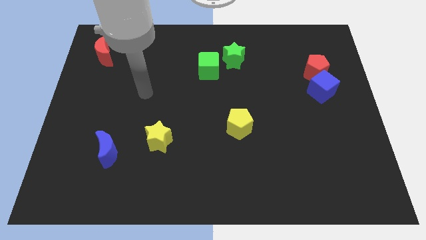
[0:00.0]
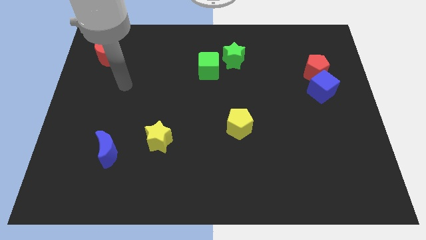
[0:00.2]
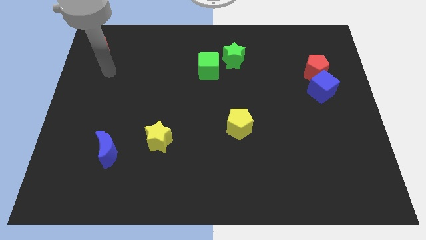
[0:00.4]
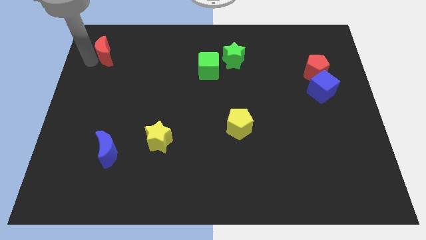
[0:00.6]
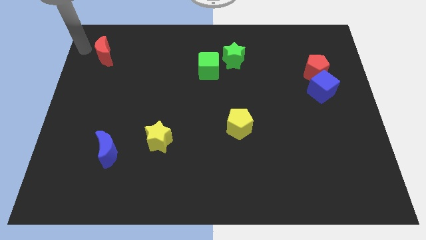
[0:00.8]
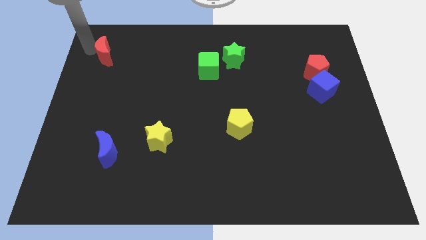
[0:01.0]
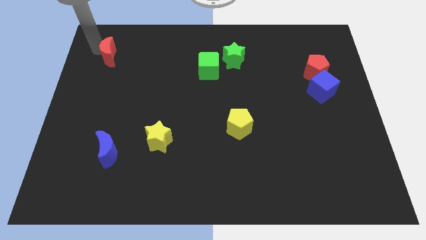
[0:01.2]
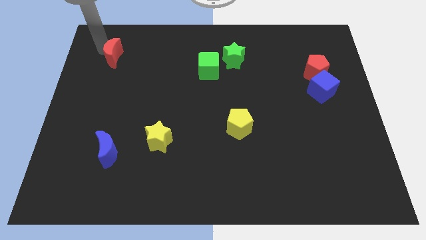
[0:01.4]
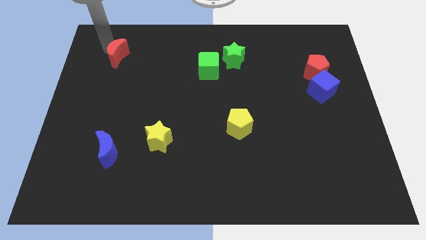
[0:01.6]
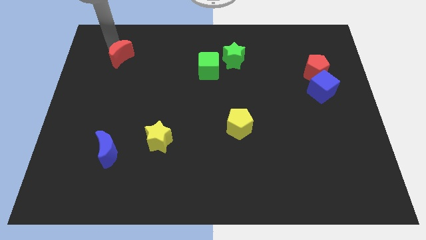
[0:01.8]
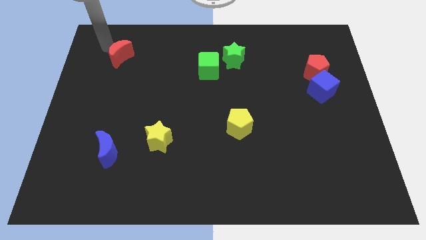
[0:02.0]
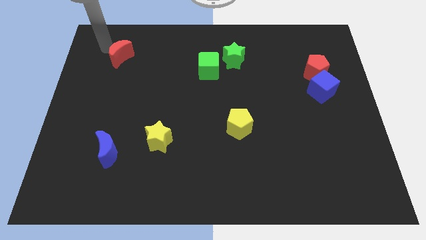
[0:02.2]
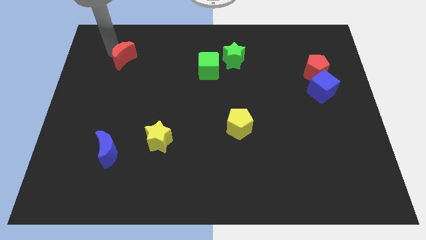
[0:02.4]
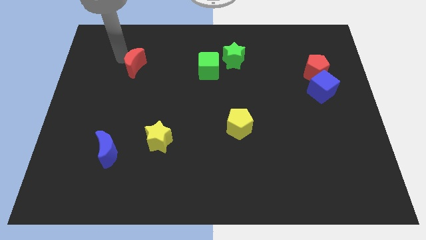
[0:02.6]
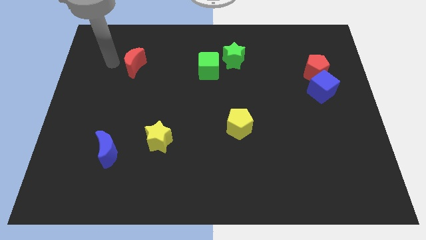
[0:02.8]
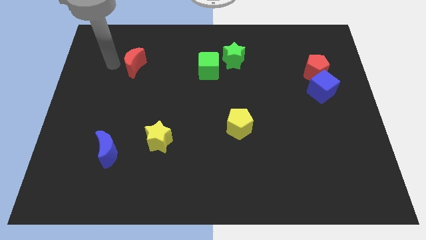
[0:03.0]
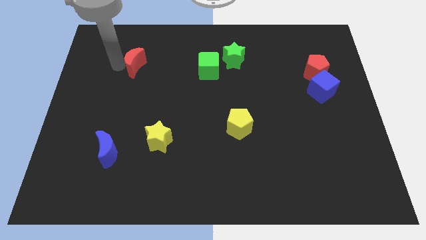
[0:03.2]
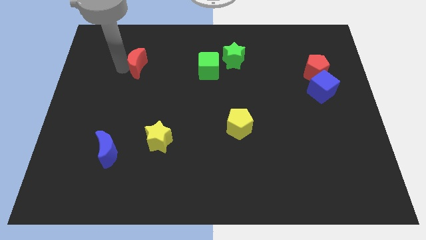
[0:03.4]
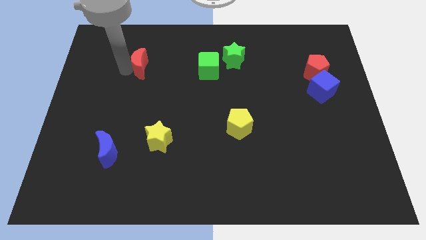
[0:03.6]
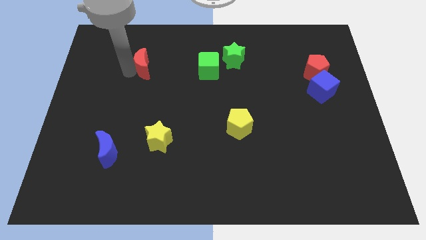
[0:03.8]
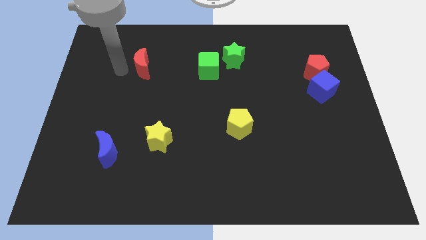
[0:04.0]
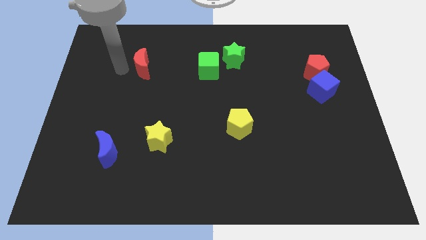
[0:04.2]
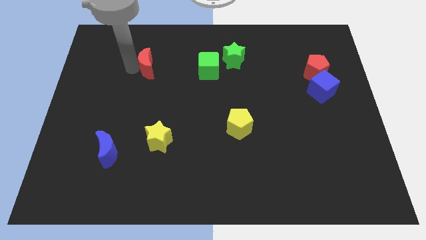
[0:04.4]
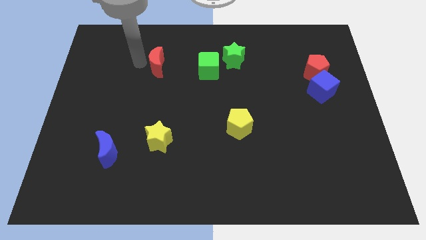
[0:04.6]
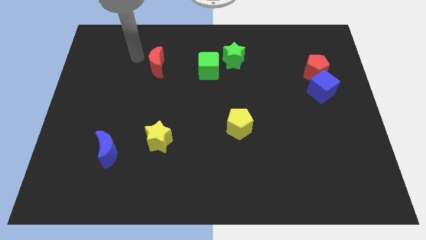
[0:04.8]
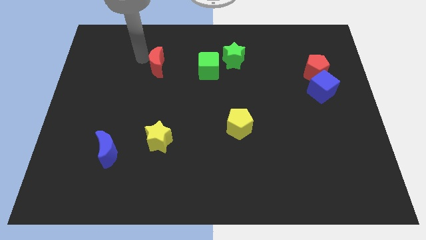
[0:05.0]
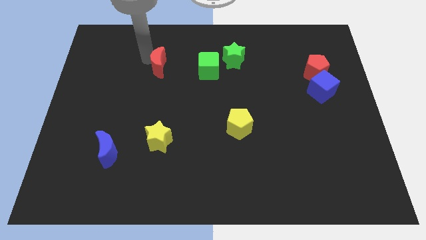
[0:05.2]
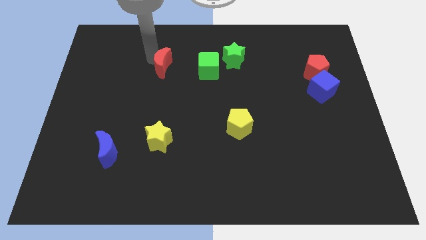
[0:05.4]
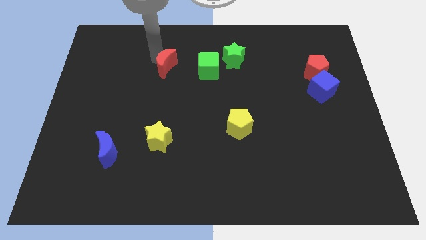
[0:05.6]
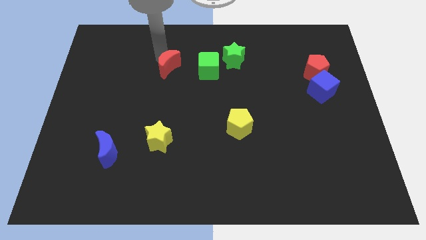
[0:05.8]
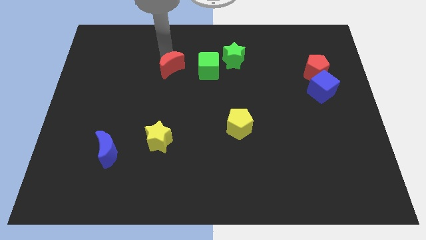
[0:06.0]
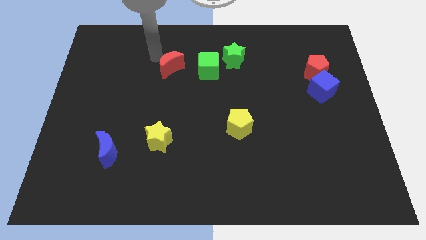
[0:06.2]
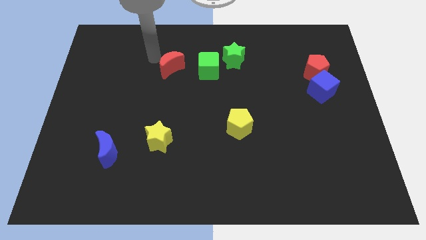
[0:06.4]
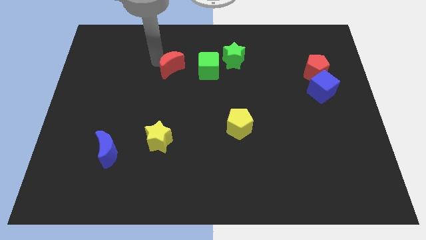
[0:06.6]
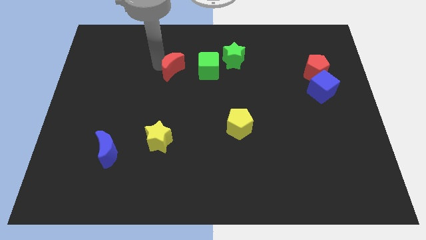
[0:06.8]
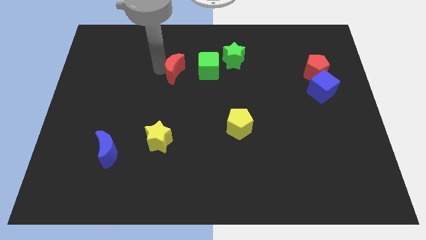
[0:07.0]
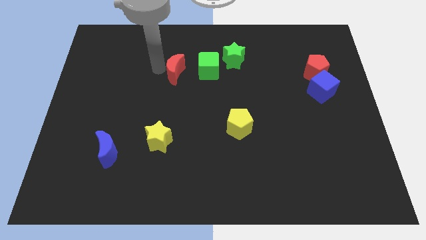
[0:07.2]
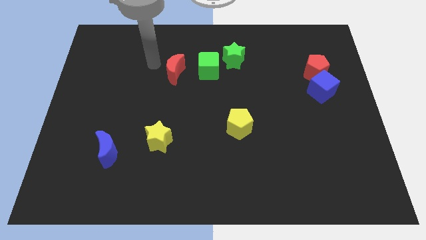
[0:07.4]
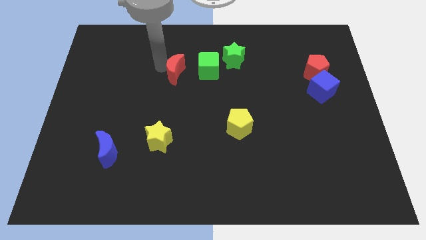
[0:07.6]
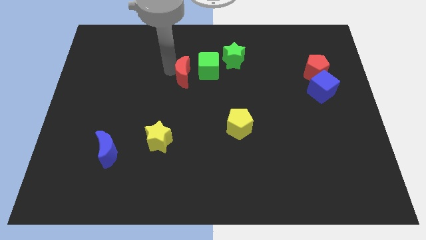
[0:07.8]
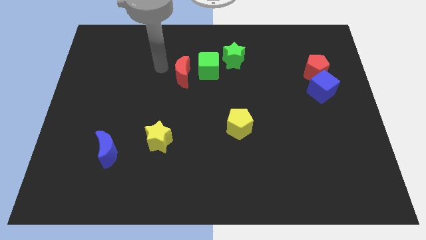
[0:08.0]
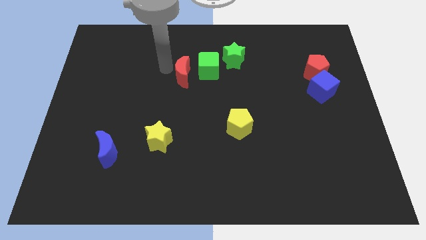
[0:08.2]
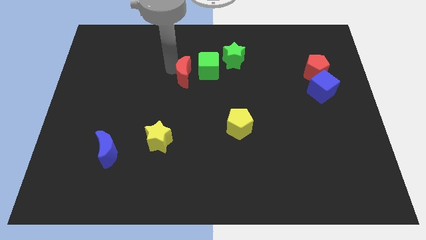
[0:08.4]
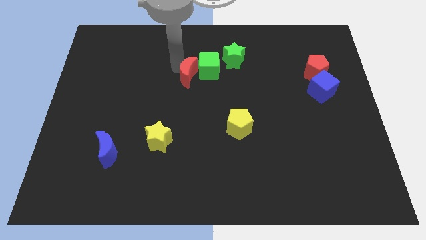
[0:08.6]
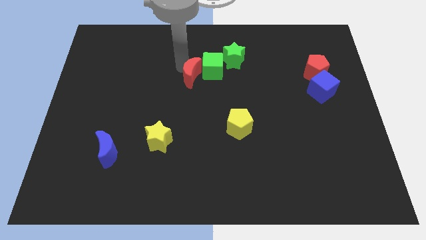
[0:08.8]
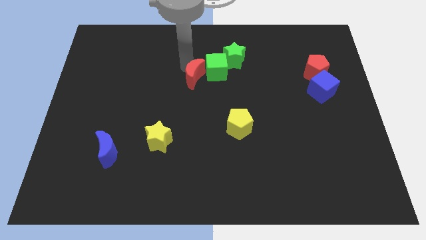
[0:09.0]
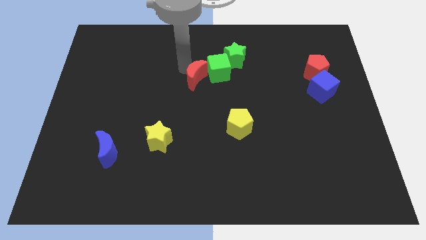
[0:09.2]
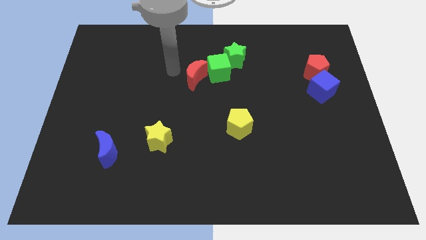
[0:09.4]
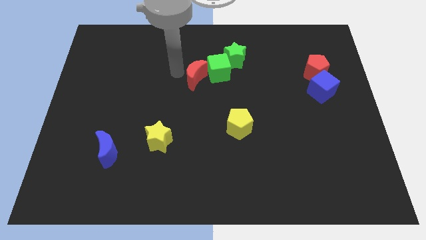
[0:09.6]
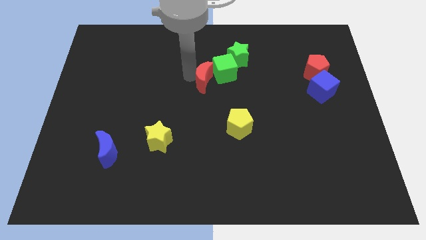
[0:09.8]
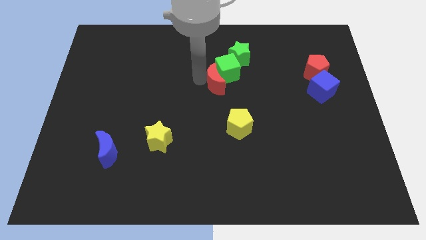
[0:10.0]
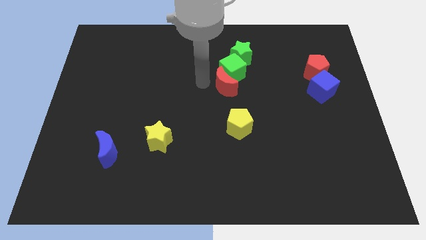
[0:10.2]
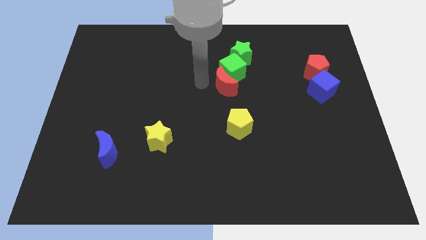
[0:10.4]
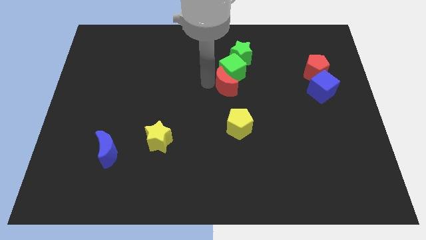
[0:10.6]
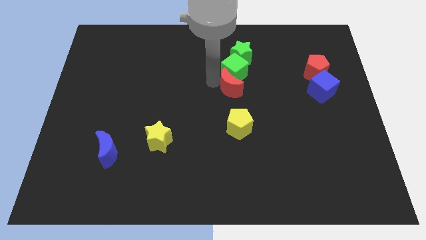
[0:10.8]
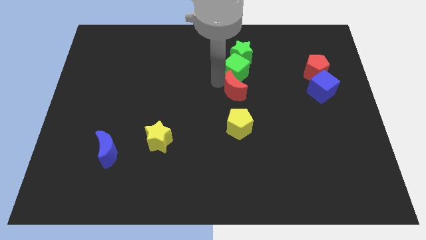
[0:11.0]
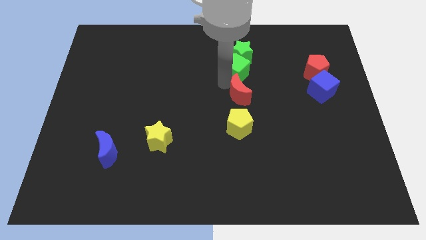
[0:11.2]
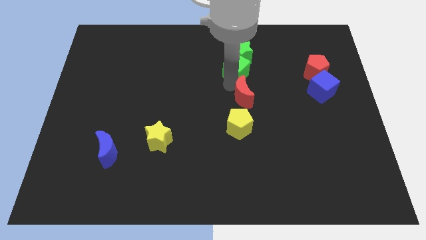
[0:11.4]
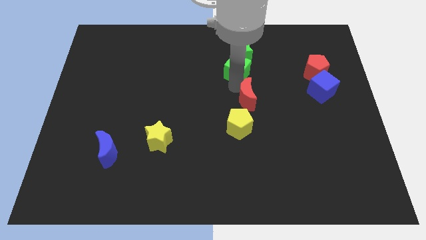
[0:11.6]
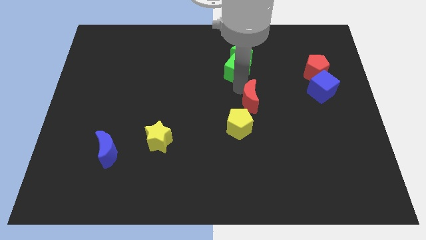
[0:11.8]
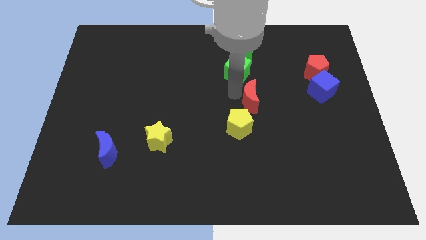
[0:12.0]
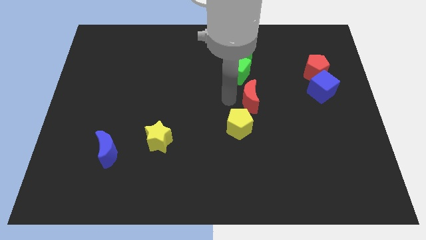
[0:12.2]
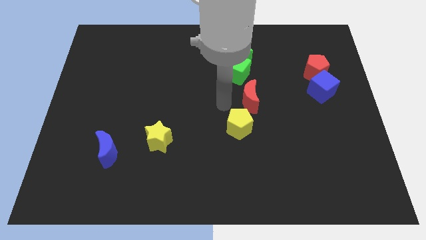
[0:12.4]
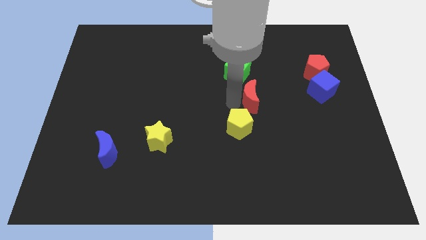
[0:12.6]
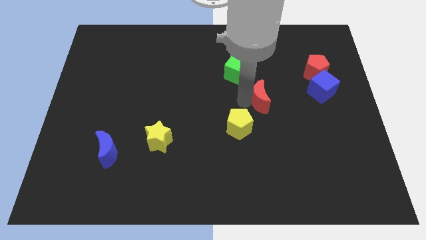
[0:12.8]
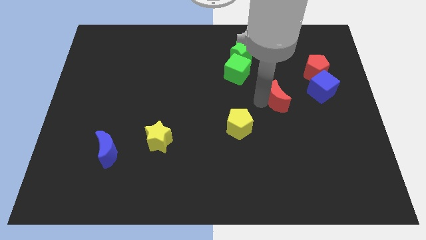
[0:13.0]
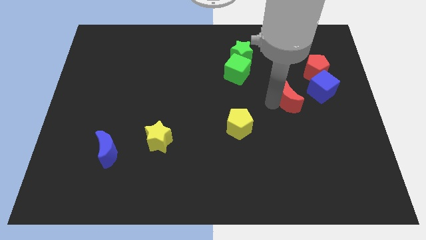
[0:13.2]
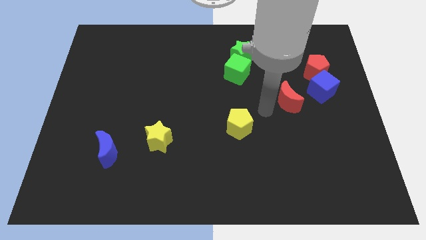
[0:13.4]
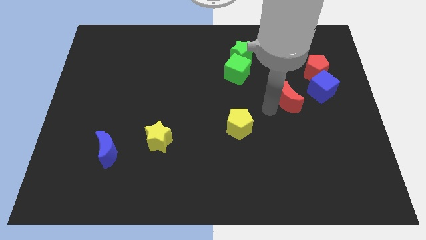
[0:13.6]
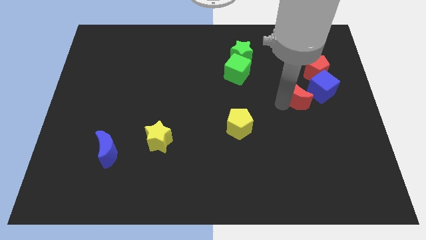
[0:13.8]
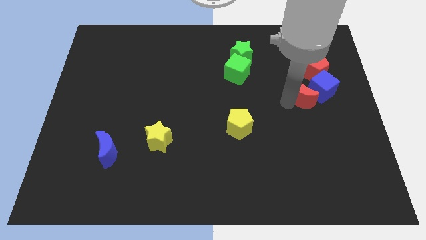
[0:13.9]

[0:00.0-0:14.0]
move the red moon towards the blue cube
